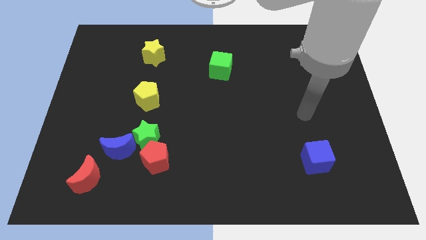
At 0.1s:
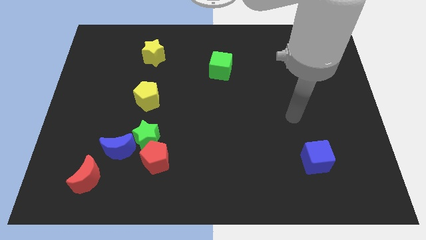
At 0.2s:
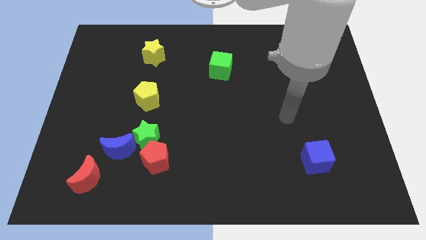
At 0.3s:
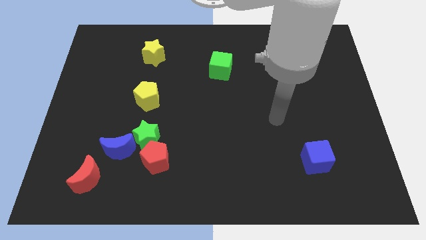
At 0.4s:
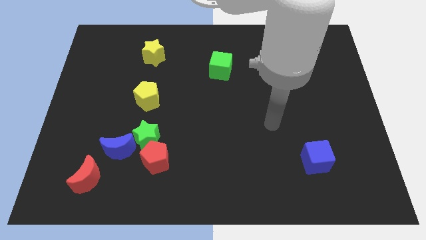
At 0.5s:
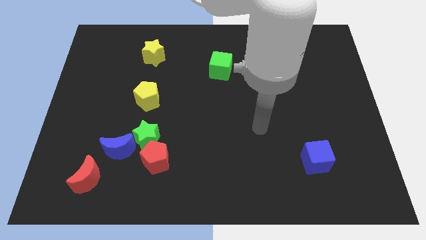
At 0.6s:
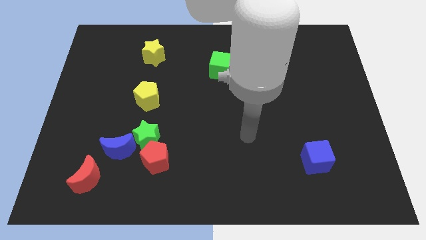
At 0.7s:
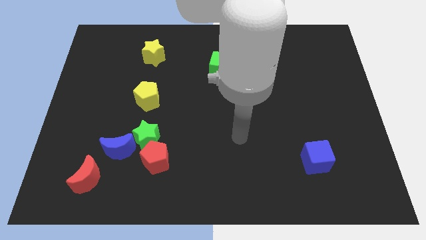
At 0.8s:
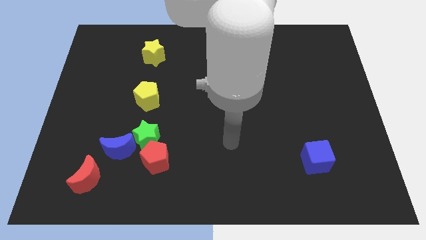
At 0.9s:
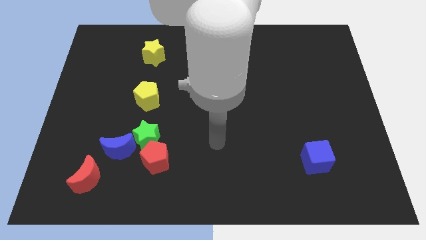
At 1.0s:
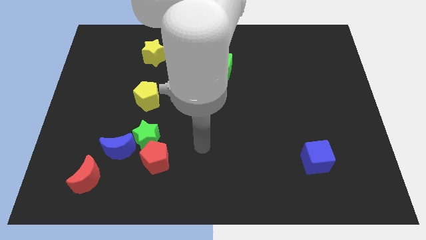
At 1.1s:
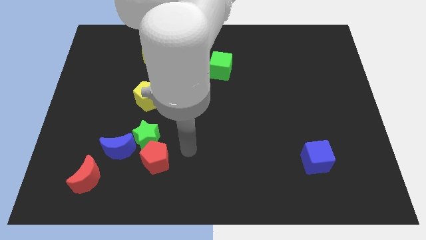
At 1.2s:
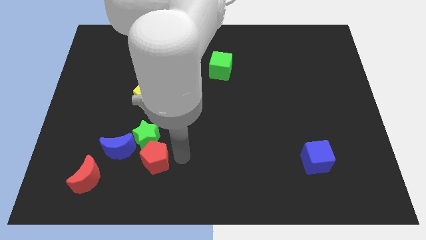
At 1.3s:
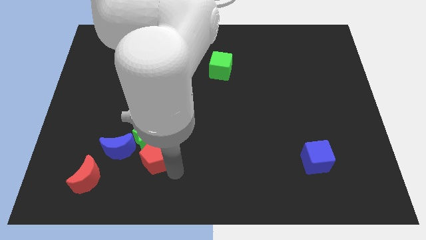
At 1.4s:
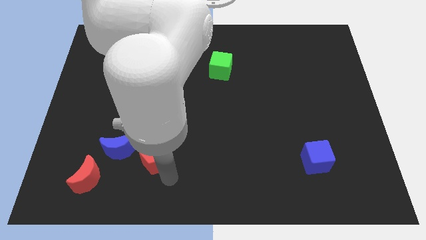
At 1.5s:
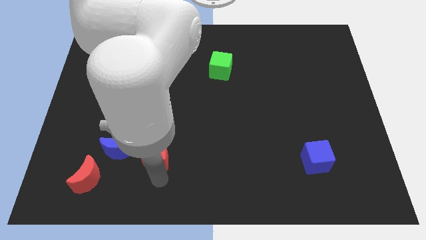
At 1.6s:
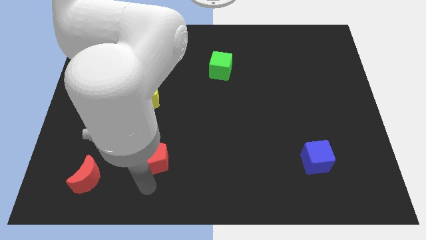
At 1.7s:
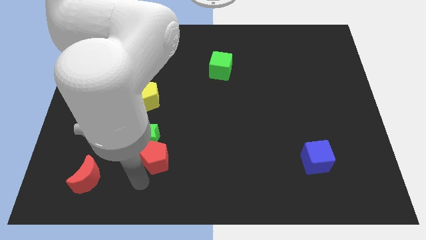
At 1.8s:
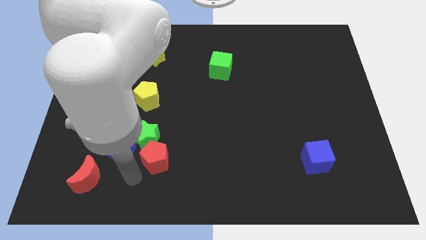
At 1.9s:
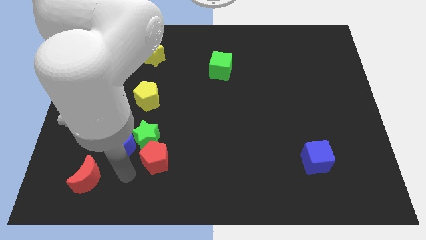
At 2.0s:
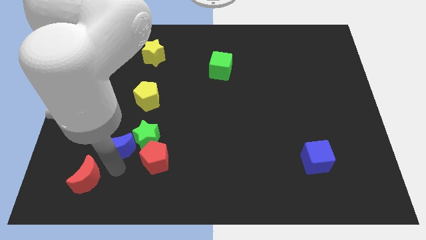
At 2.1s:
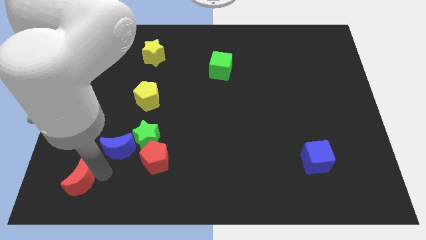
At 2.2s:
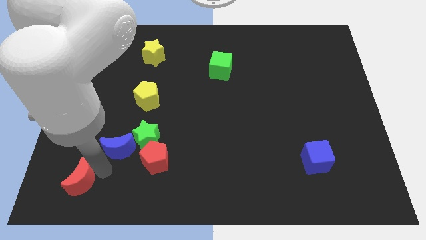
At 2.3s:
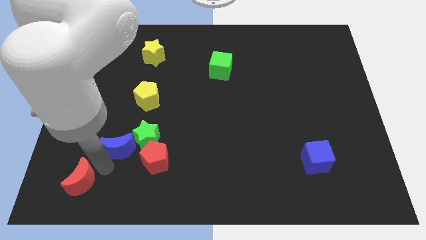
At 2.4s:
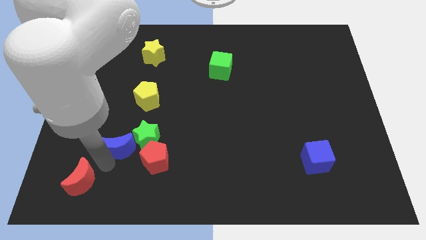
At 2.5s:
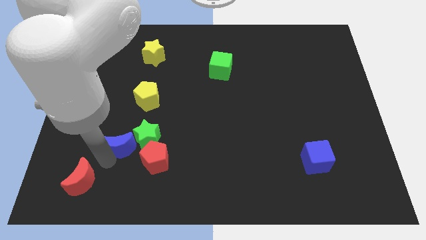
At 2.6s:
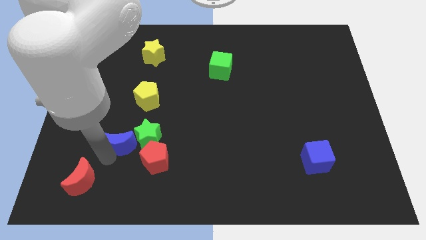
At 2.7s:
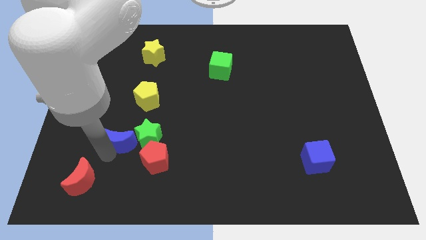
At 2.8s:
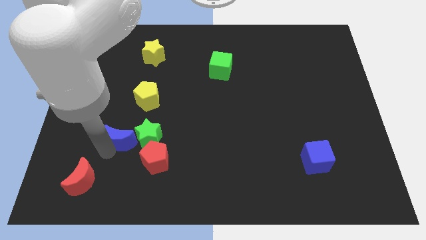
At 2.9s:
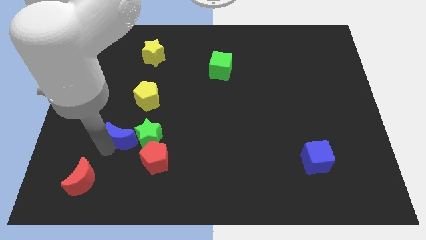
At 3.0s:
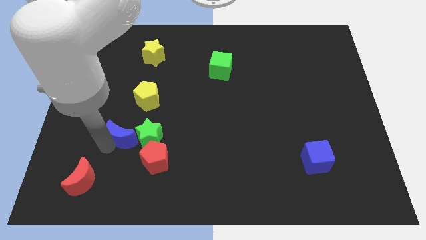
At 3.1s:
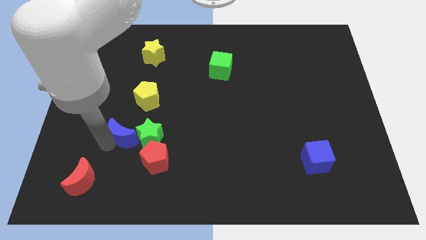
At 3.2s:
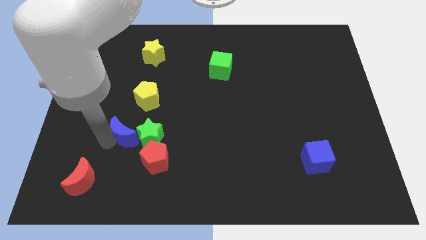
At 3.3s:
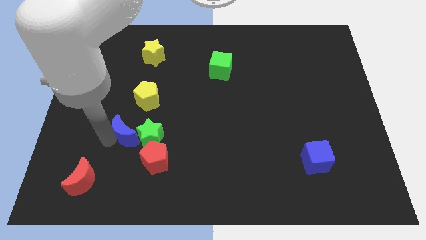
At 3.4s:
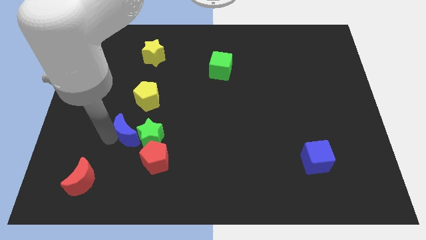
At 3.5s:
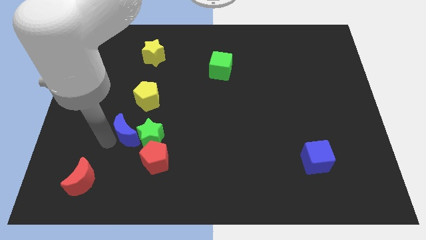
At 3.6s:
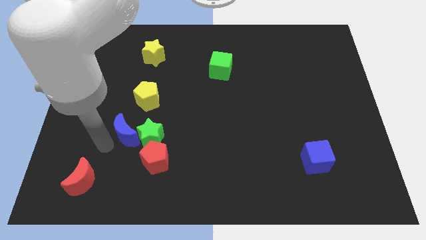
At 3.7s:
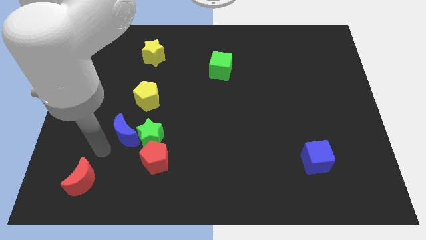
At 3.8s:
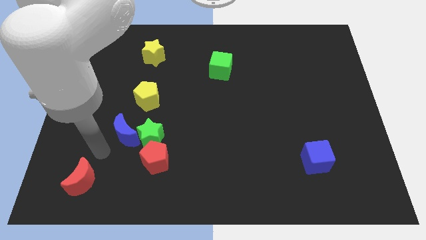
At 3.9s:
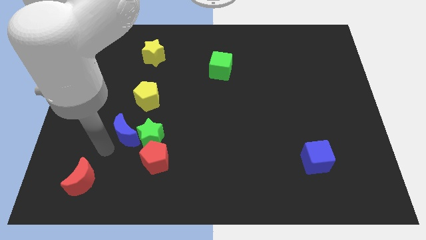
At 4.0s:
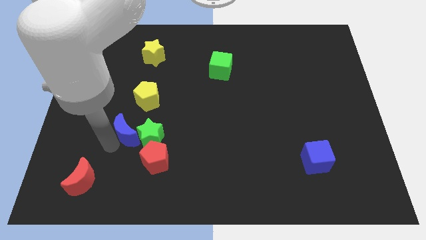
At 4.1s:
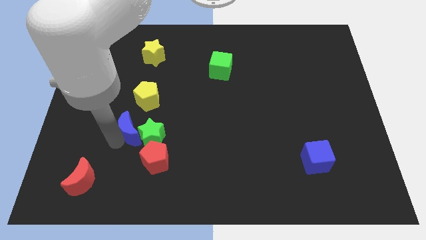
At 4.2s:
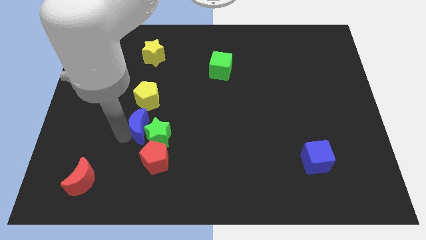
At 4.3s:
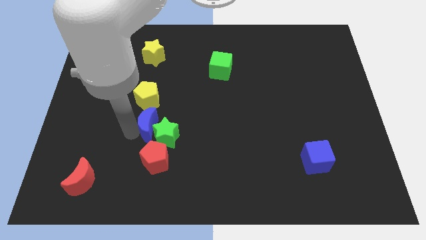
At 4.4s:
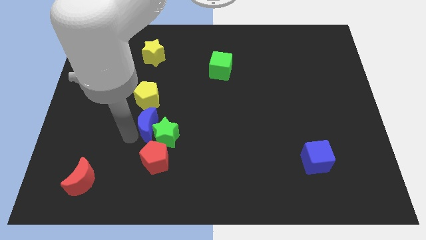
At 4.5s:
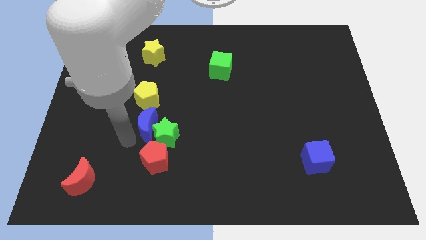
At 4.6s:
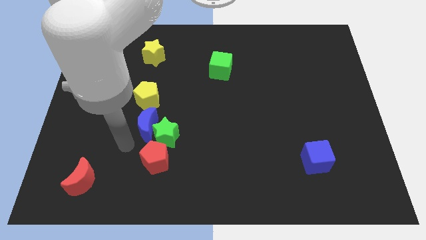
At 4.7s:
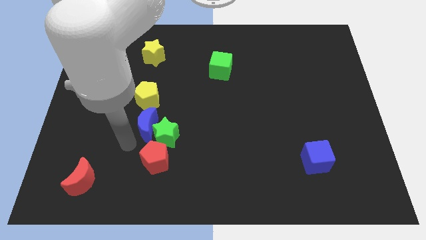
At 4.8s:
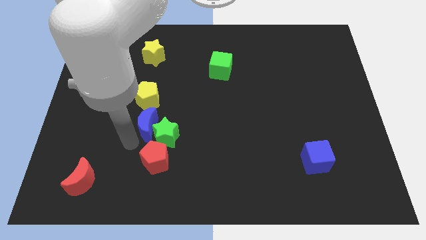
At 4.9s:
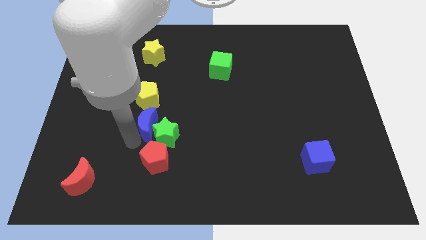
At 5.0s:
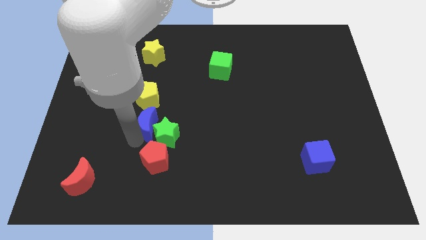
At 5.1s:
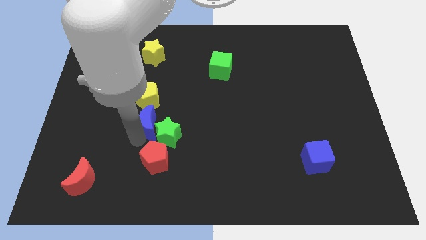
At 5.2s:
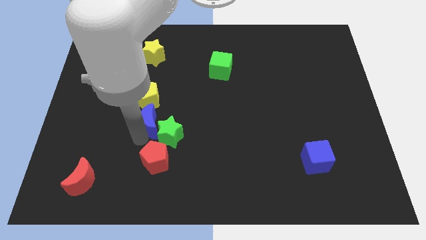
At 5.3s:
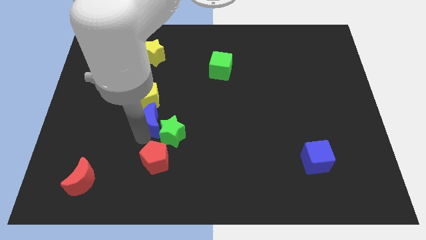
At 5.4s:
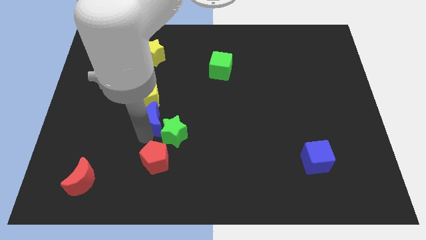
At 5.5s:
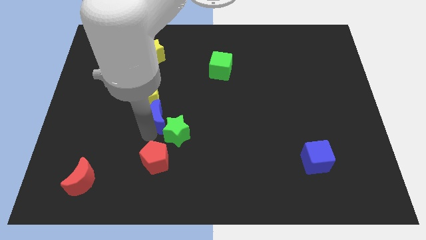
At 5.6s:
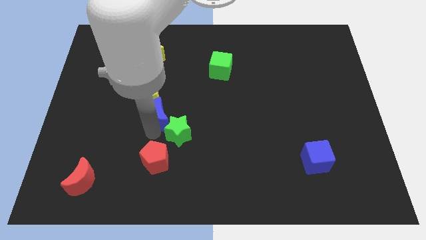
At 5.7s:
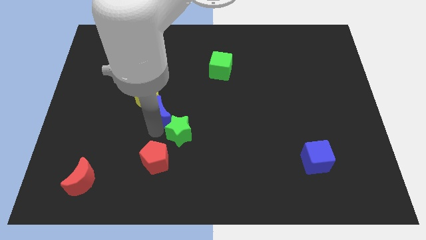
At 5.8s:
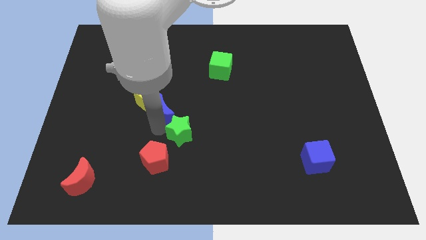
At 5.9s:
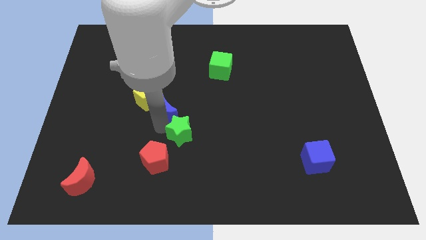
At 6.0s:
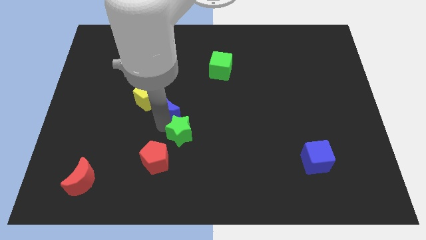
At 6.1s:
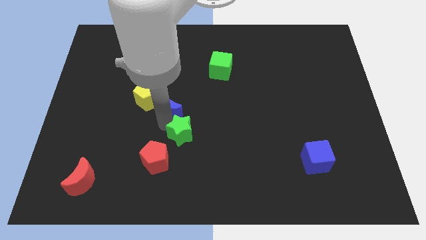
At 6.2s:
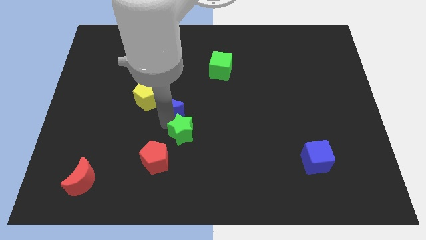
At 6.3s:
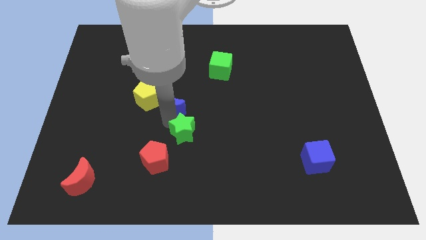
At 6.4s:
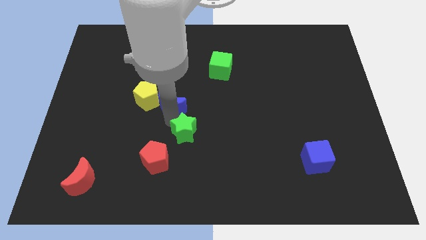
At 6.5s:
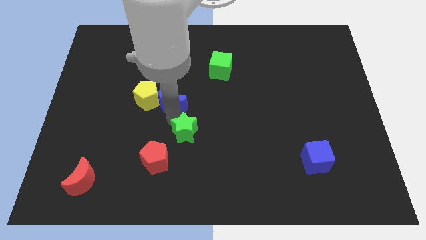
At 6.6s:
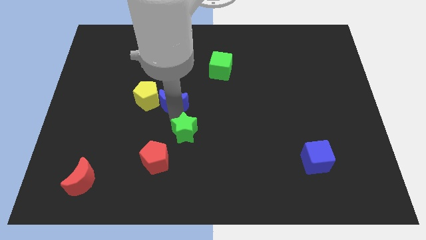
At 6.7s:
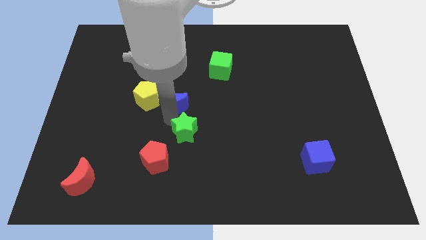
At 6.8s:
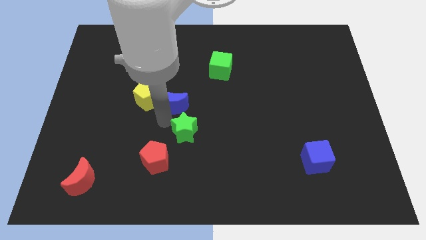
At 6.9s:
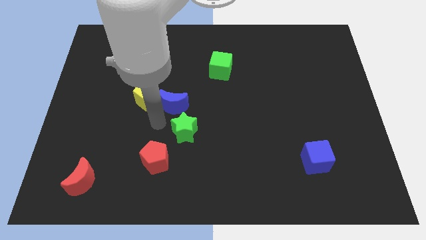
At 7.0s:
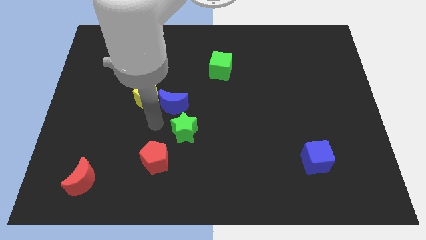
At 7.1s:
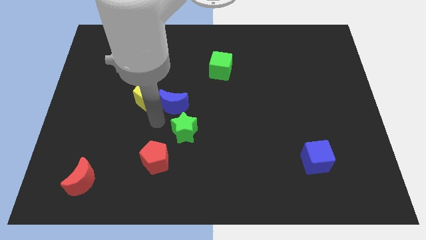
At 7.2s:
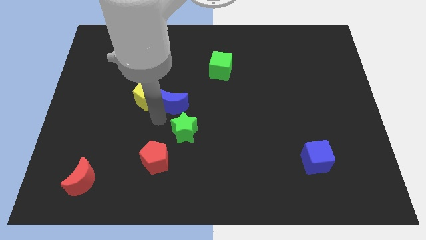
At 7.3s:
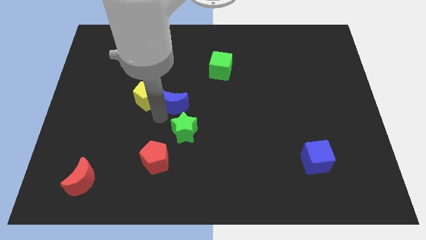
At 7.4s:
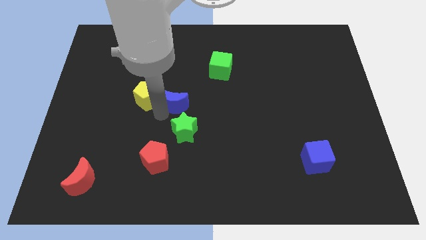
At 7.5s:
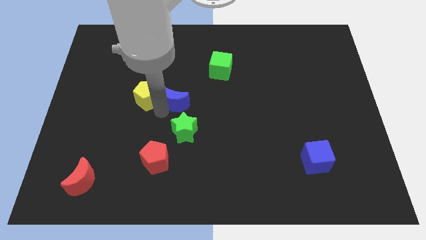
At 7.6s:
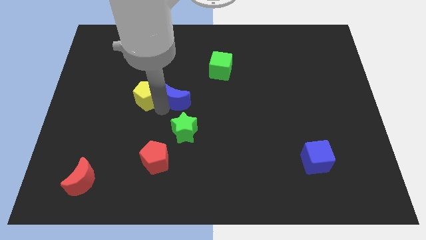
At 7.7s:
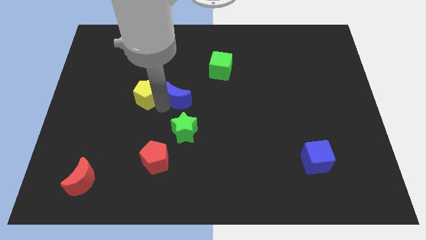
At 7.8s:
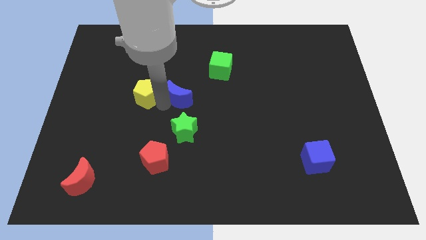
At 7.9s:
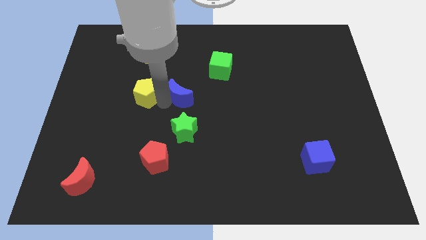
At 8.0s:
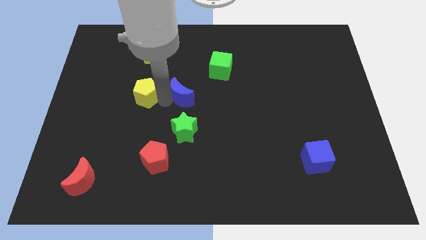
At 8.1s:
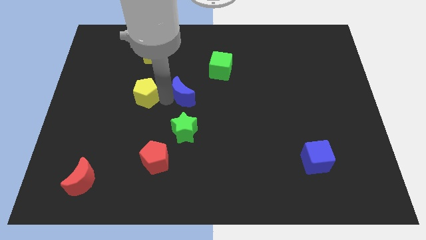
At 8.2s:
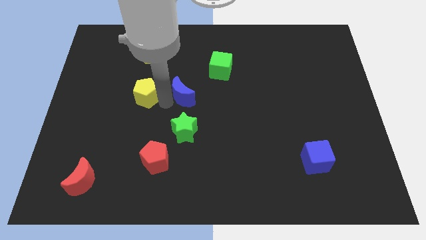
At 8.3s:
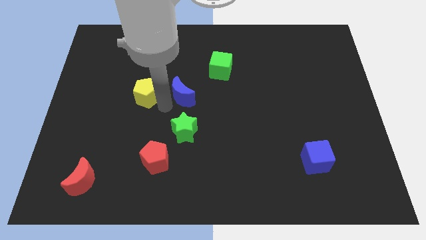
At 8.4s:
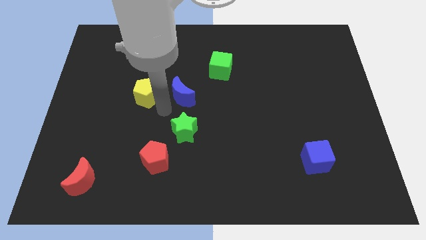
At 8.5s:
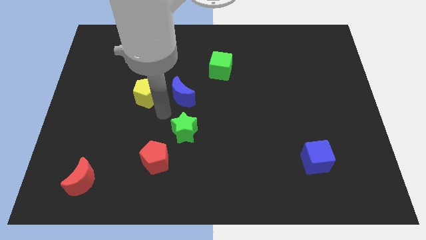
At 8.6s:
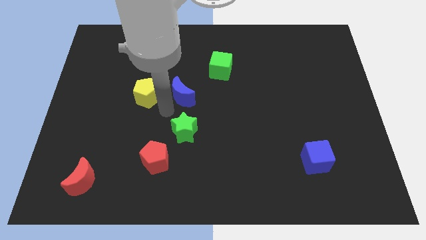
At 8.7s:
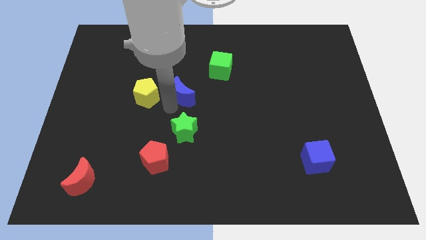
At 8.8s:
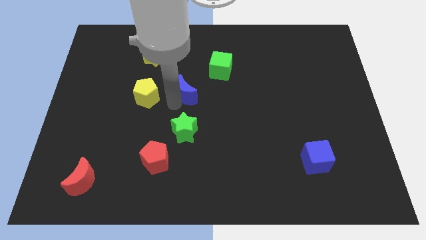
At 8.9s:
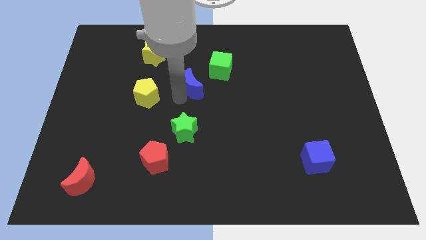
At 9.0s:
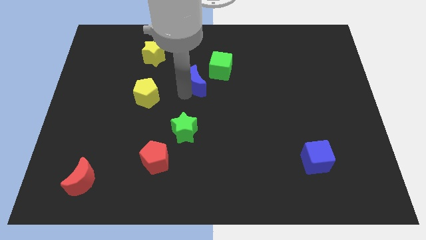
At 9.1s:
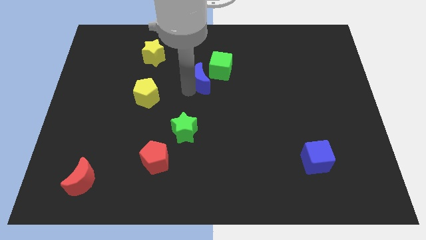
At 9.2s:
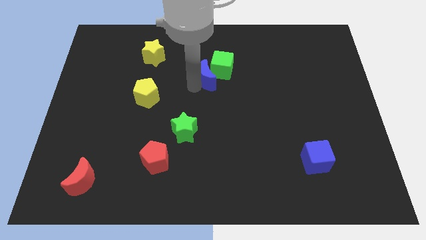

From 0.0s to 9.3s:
move the blue moon next to the green cube
